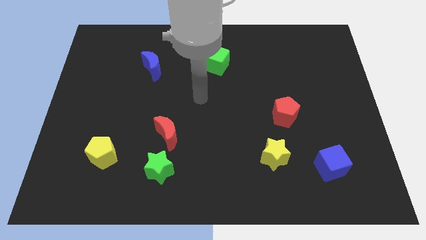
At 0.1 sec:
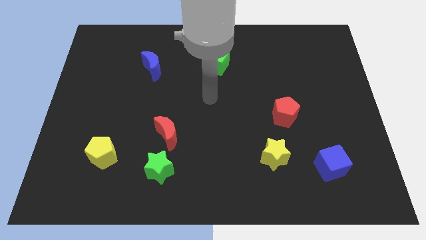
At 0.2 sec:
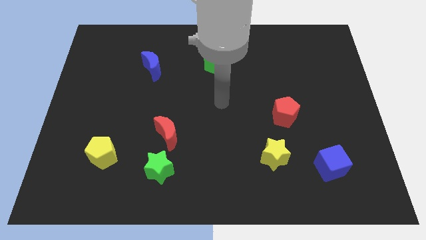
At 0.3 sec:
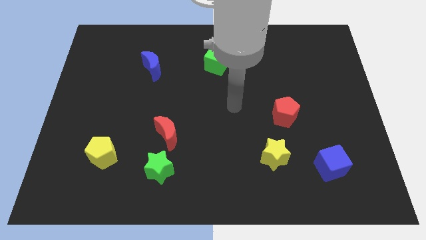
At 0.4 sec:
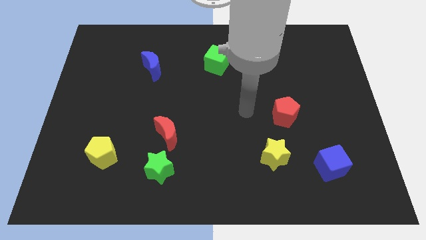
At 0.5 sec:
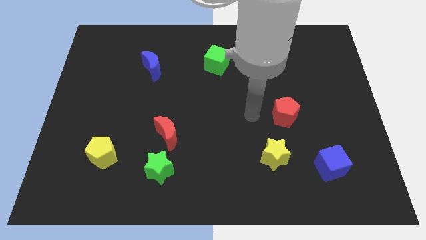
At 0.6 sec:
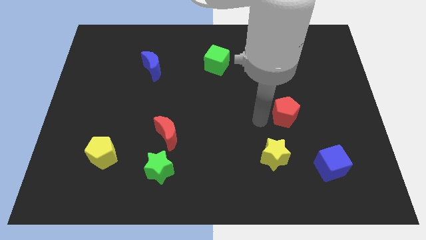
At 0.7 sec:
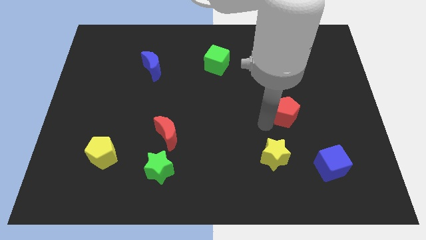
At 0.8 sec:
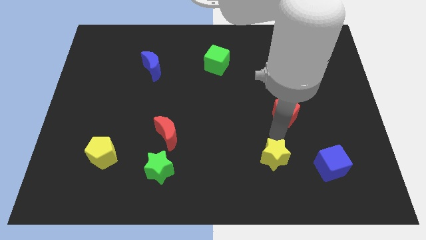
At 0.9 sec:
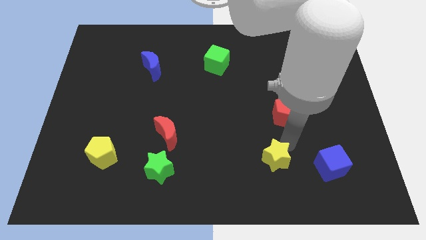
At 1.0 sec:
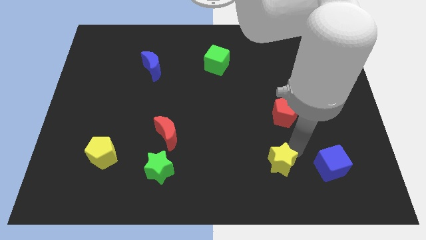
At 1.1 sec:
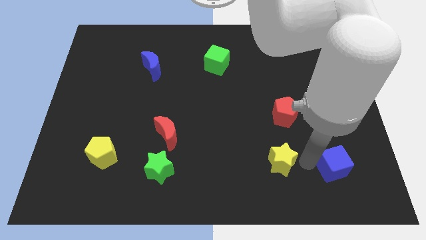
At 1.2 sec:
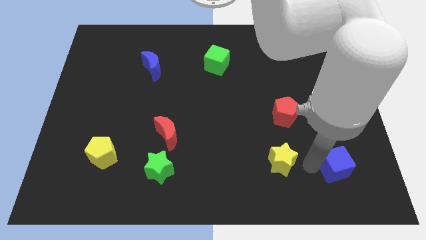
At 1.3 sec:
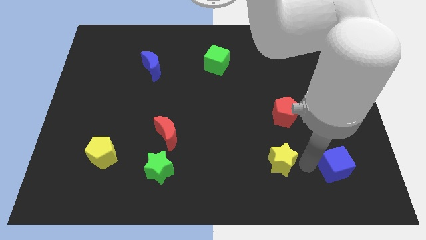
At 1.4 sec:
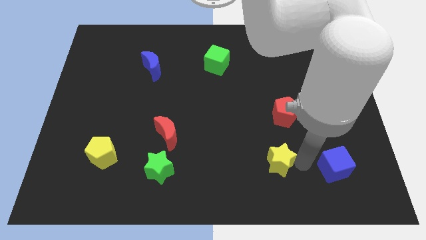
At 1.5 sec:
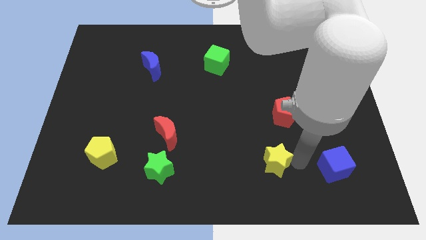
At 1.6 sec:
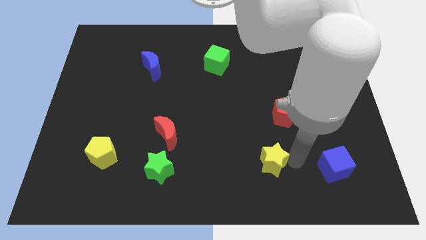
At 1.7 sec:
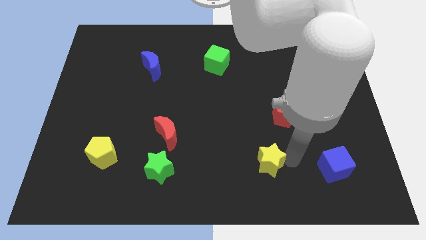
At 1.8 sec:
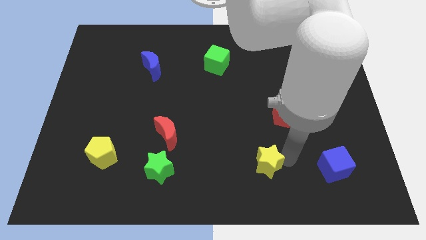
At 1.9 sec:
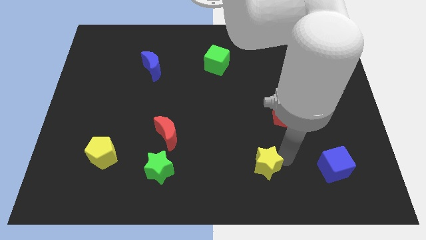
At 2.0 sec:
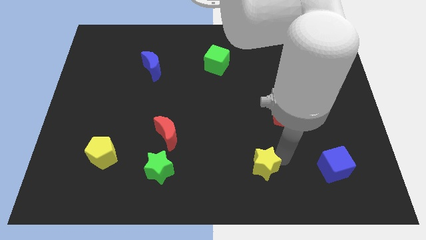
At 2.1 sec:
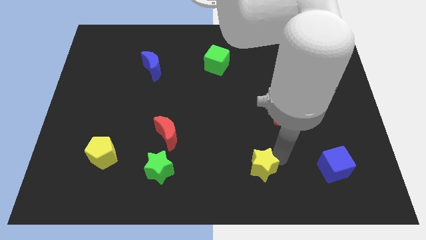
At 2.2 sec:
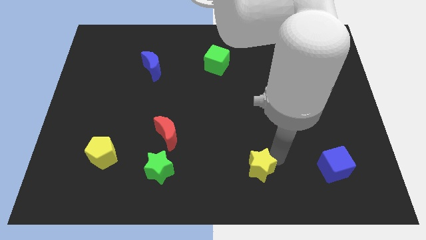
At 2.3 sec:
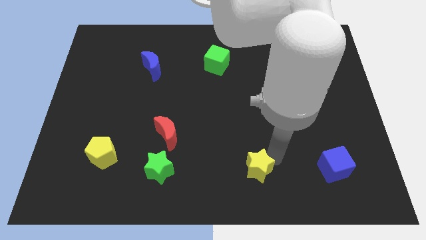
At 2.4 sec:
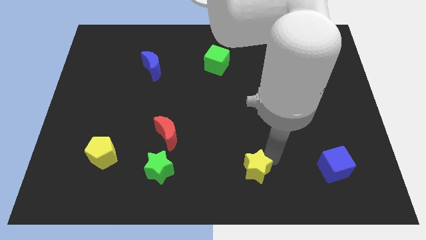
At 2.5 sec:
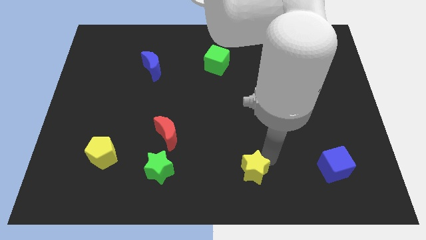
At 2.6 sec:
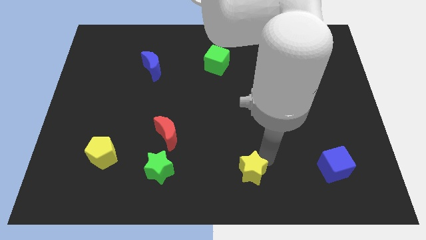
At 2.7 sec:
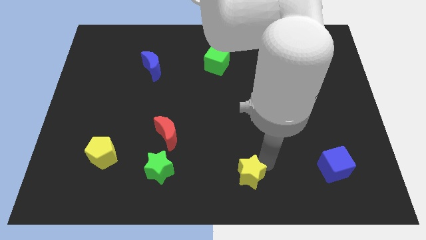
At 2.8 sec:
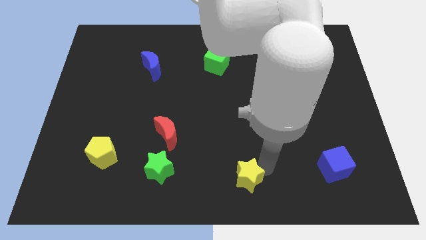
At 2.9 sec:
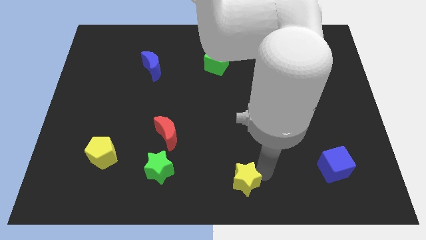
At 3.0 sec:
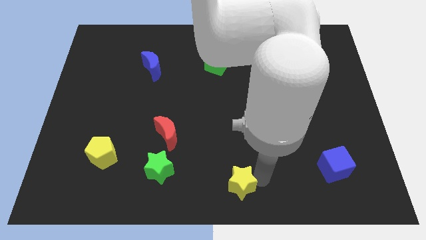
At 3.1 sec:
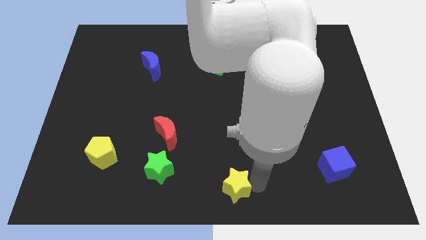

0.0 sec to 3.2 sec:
move the yellow star to the left somewhat

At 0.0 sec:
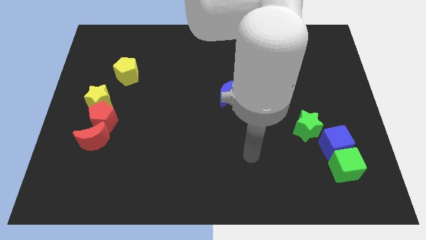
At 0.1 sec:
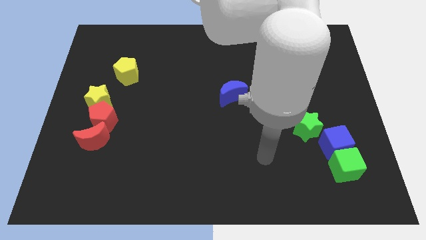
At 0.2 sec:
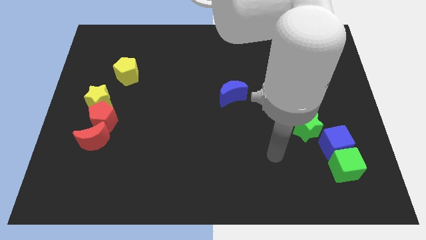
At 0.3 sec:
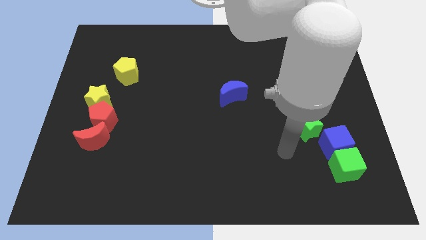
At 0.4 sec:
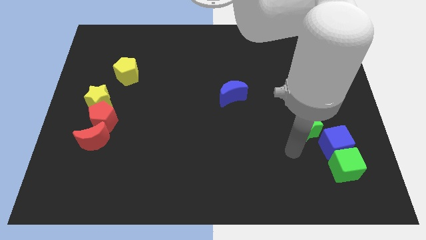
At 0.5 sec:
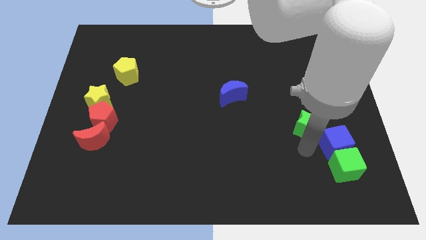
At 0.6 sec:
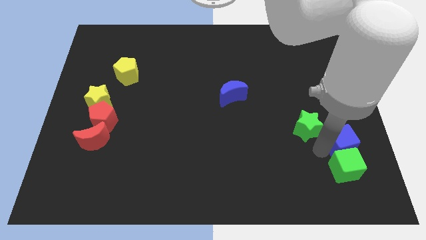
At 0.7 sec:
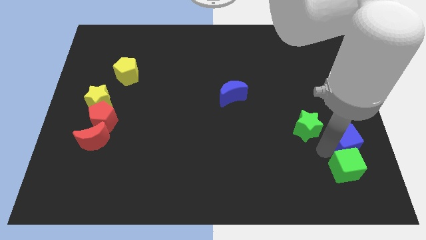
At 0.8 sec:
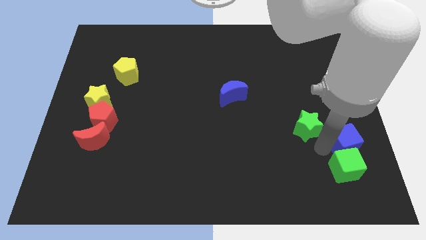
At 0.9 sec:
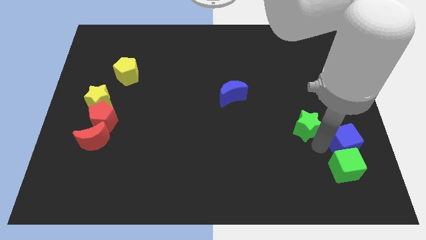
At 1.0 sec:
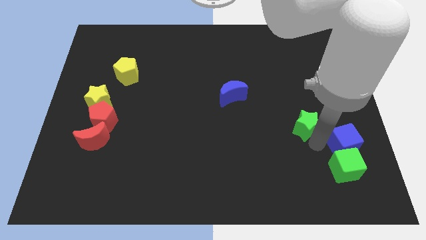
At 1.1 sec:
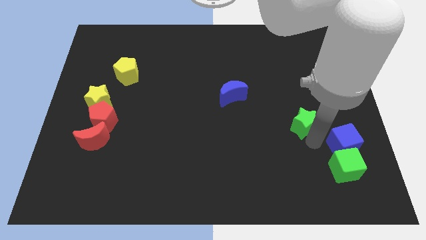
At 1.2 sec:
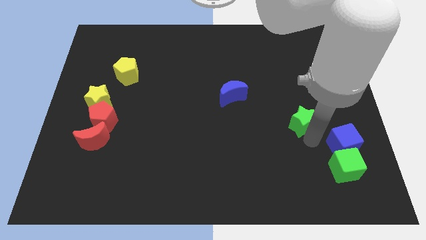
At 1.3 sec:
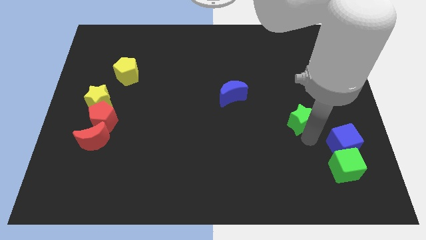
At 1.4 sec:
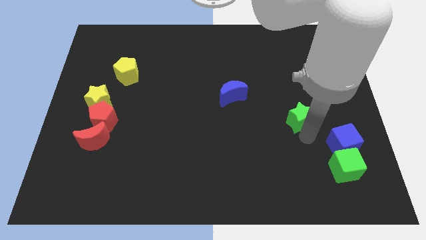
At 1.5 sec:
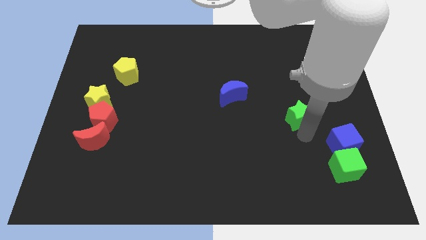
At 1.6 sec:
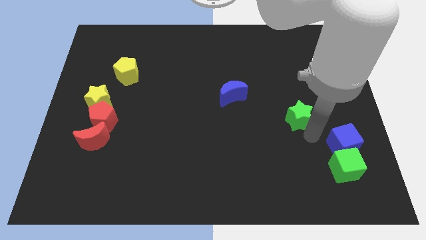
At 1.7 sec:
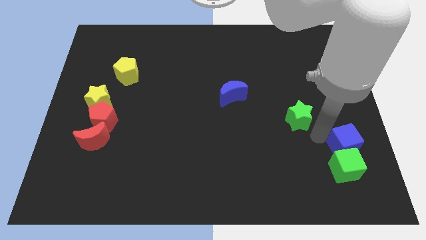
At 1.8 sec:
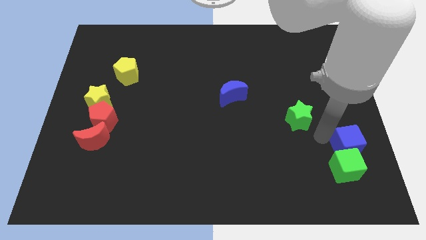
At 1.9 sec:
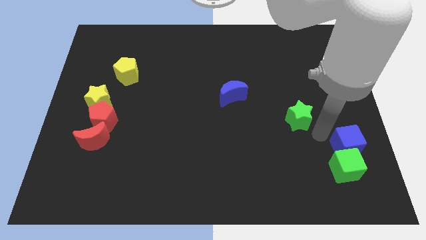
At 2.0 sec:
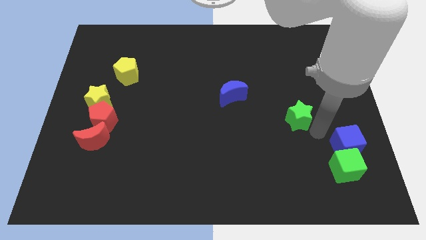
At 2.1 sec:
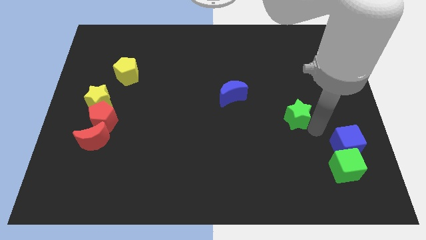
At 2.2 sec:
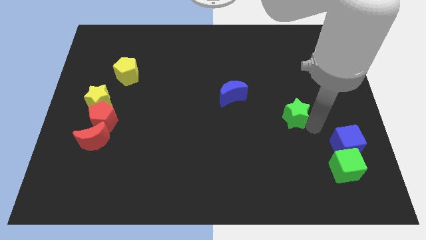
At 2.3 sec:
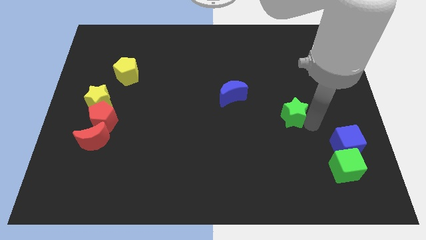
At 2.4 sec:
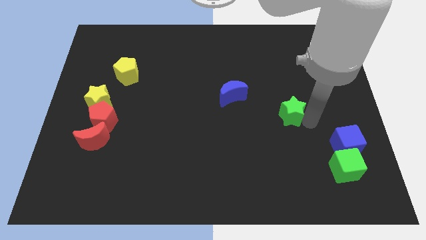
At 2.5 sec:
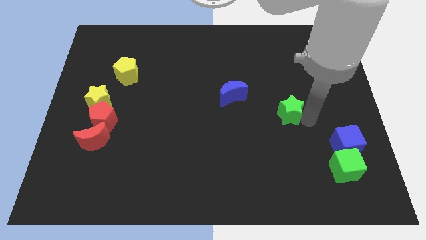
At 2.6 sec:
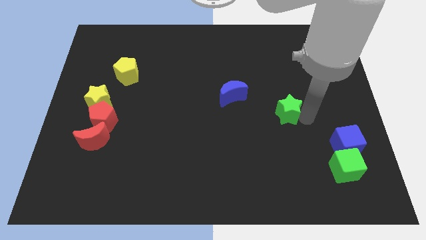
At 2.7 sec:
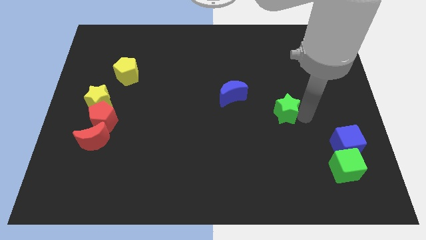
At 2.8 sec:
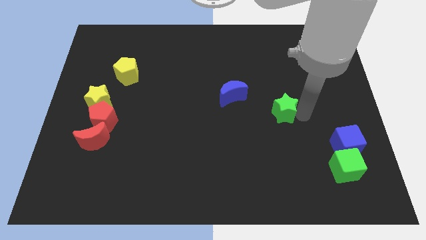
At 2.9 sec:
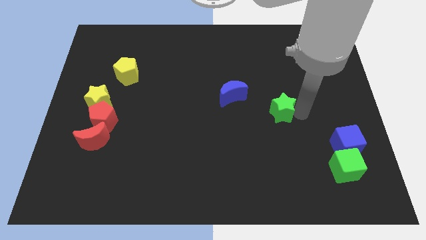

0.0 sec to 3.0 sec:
slightly move the green star up and to the left diagonally

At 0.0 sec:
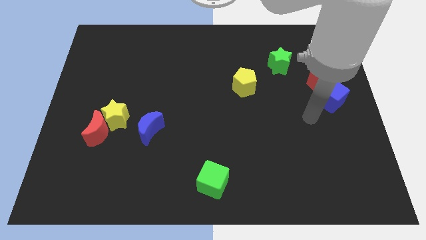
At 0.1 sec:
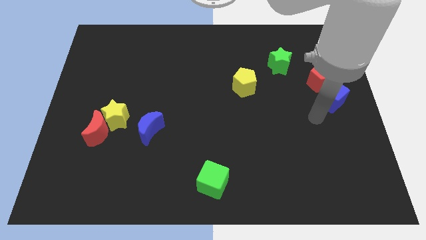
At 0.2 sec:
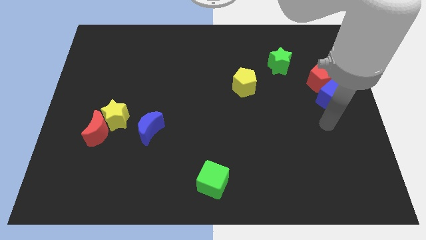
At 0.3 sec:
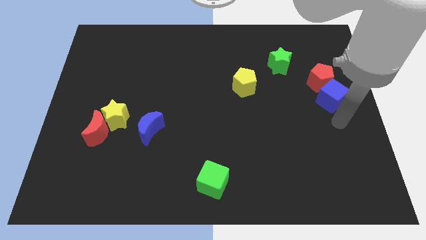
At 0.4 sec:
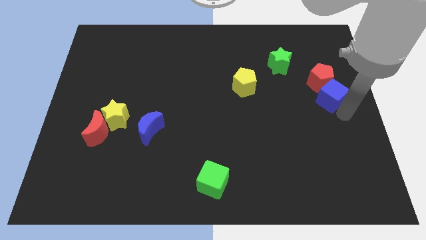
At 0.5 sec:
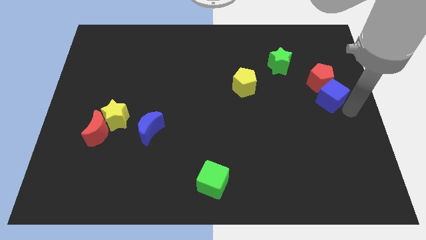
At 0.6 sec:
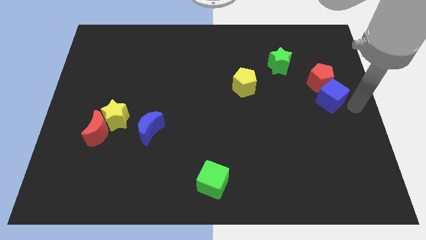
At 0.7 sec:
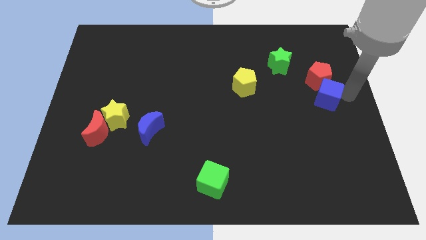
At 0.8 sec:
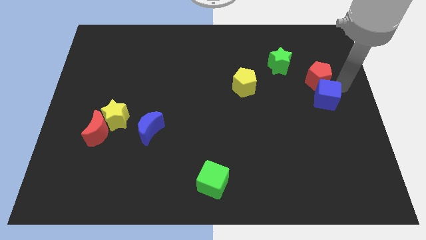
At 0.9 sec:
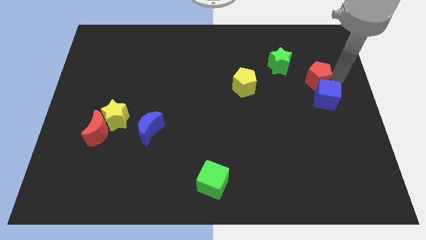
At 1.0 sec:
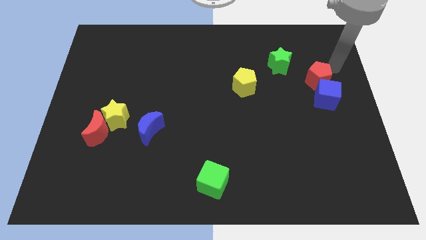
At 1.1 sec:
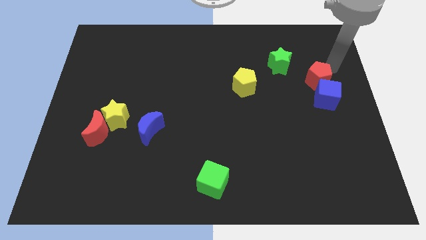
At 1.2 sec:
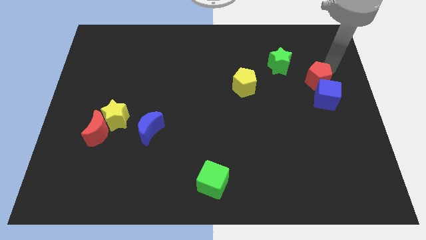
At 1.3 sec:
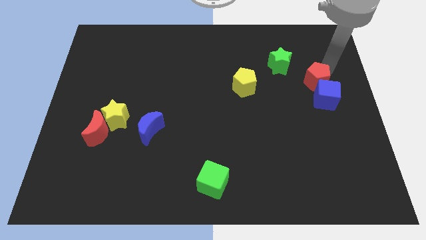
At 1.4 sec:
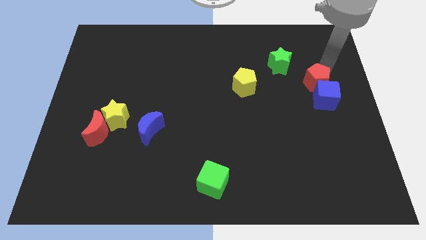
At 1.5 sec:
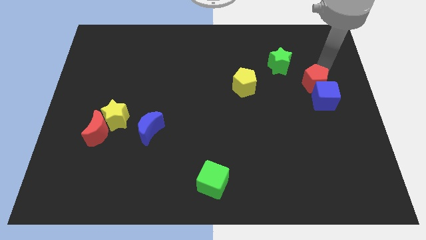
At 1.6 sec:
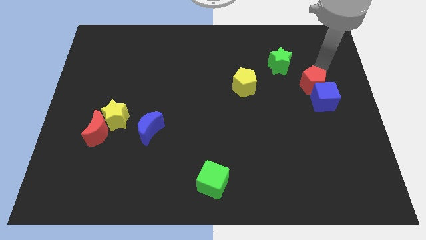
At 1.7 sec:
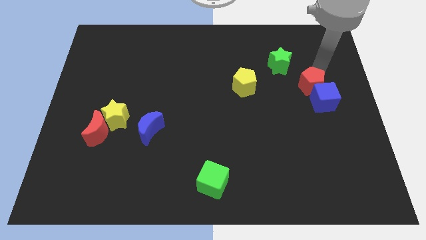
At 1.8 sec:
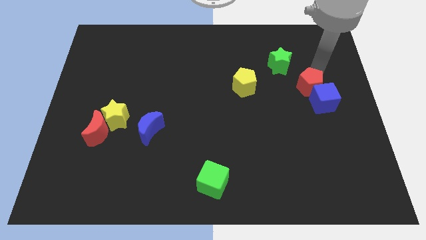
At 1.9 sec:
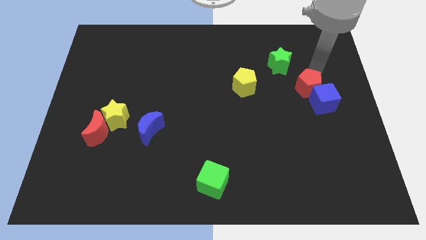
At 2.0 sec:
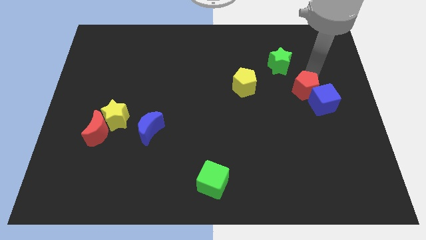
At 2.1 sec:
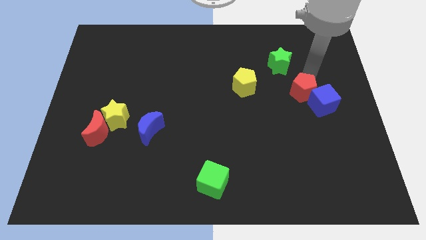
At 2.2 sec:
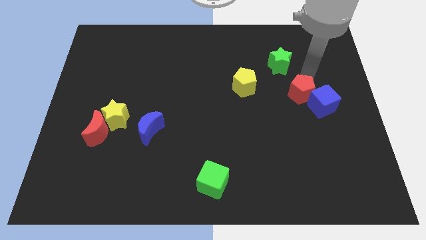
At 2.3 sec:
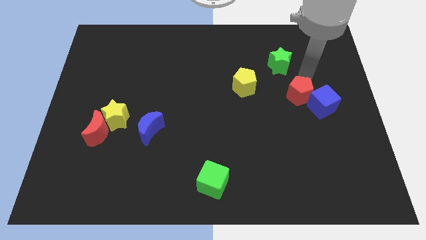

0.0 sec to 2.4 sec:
slightly move the red pentagon downwards and to the left diagonally

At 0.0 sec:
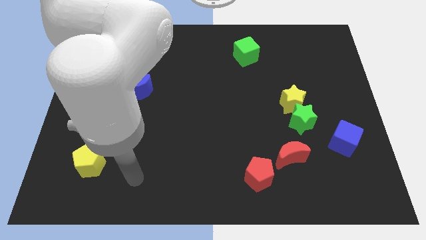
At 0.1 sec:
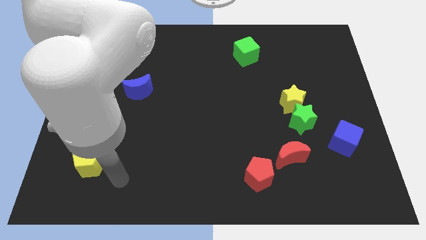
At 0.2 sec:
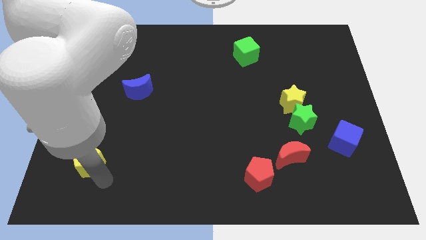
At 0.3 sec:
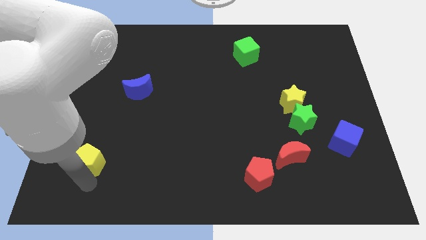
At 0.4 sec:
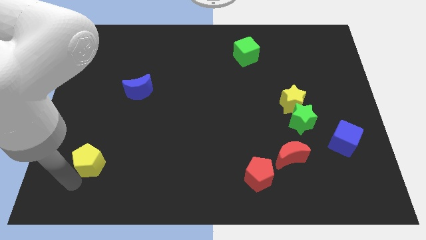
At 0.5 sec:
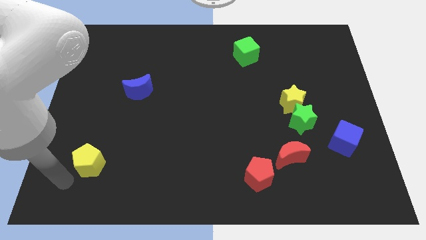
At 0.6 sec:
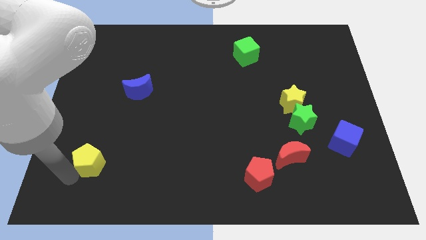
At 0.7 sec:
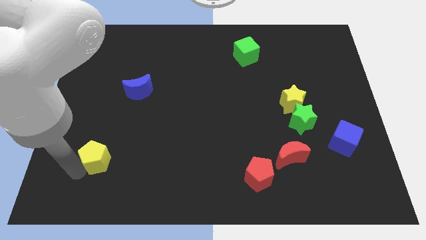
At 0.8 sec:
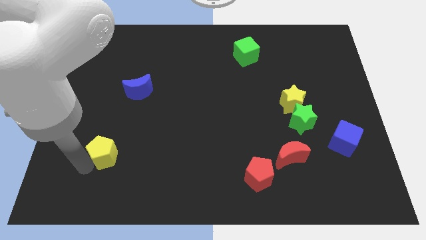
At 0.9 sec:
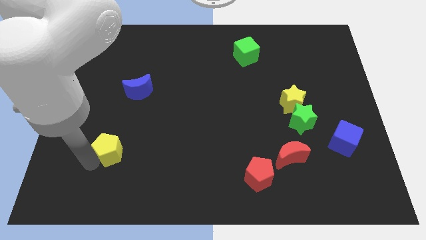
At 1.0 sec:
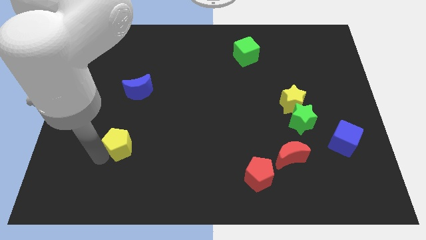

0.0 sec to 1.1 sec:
push the yellow pentagon up and to the right a little bit
